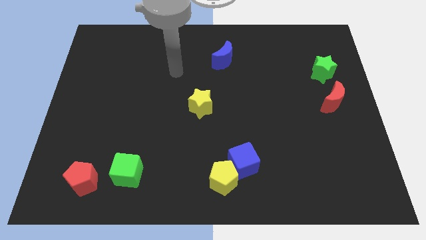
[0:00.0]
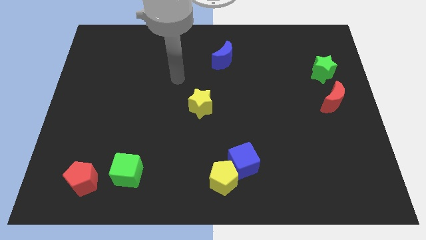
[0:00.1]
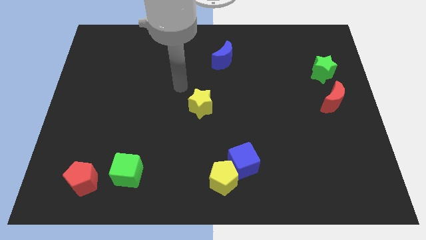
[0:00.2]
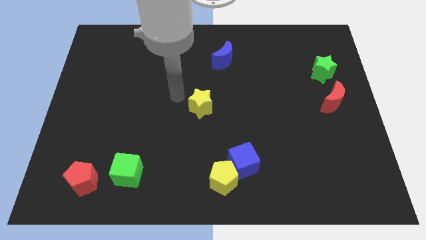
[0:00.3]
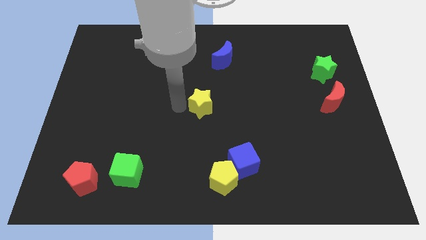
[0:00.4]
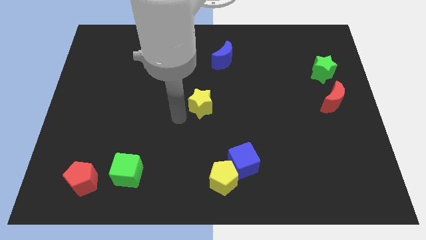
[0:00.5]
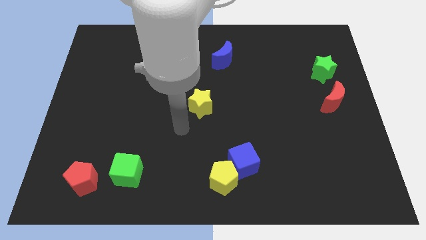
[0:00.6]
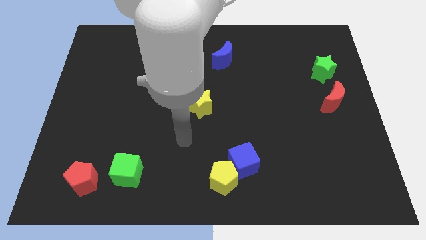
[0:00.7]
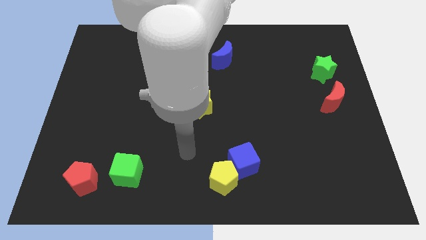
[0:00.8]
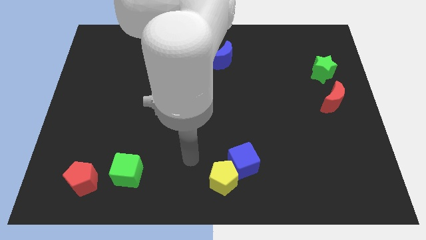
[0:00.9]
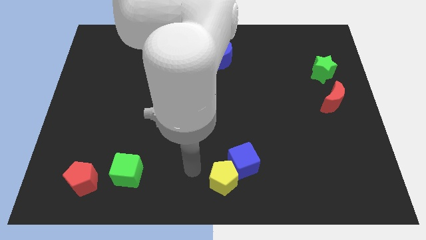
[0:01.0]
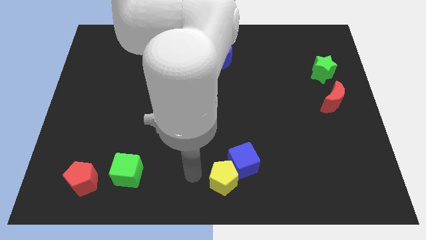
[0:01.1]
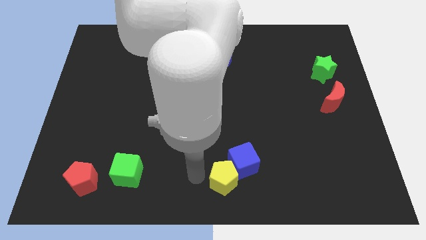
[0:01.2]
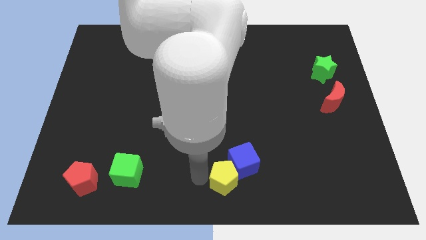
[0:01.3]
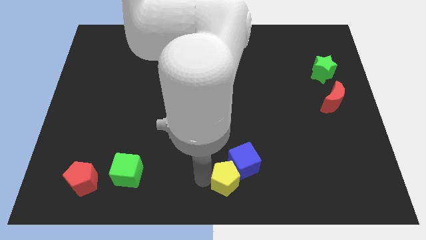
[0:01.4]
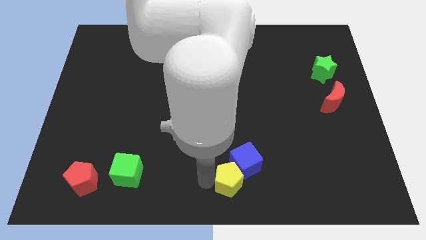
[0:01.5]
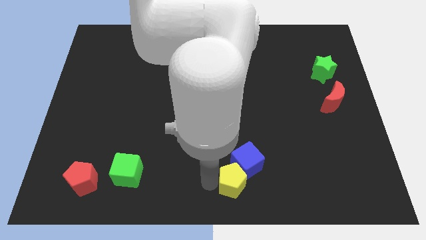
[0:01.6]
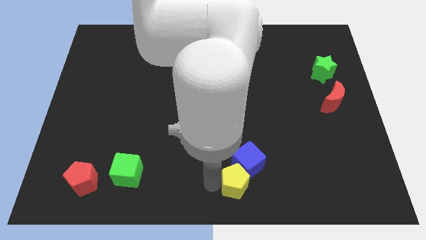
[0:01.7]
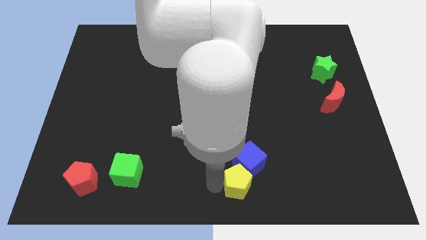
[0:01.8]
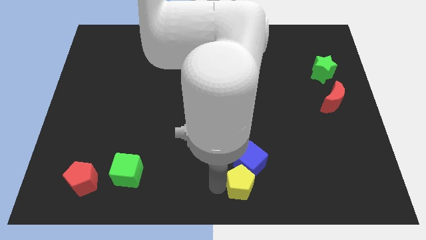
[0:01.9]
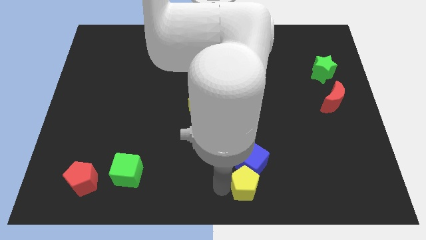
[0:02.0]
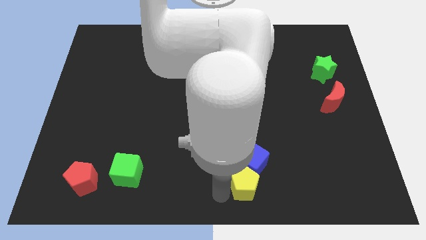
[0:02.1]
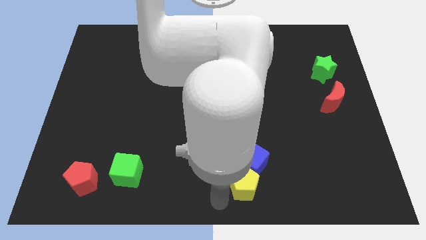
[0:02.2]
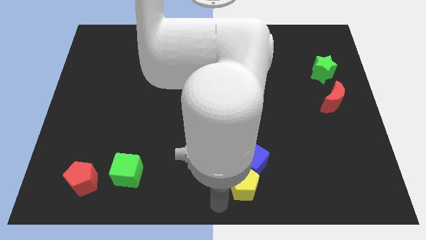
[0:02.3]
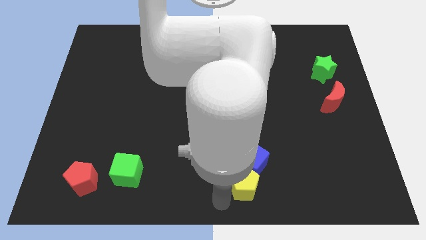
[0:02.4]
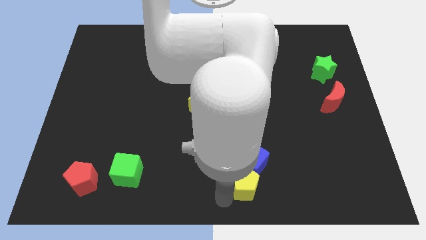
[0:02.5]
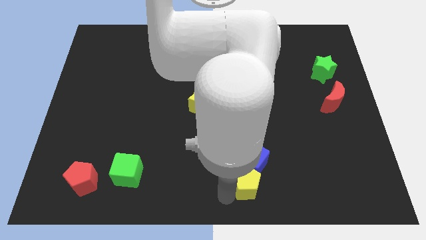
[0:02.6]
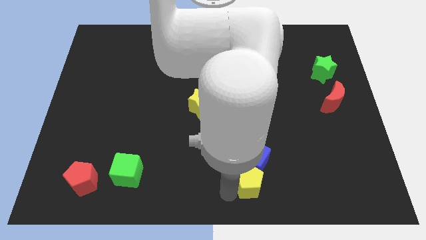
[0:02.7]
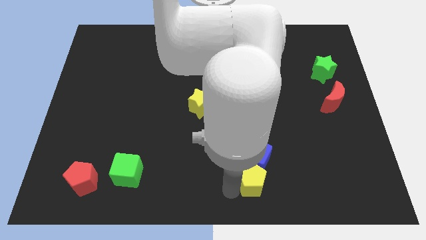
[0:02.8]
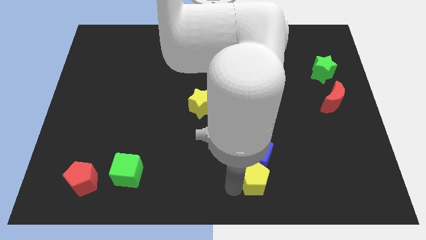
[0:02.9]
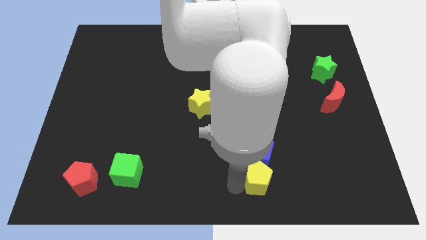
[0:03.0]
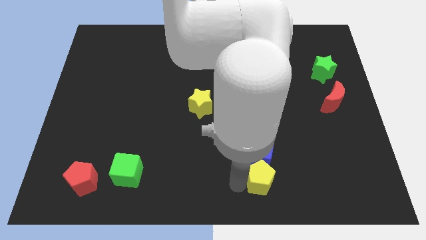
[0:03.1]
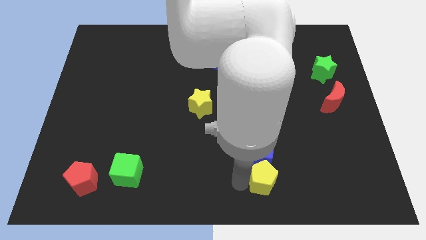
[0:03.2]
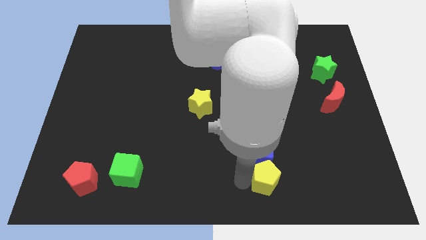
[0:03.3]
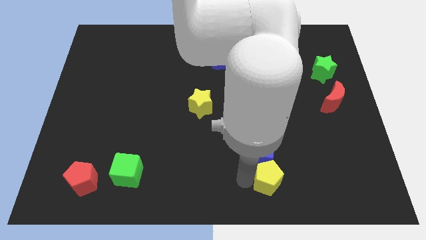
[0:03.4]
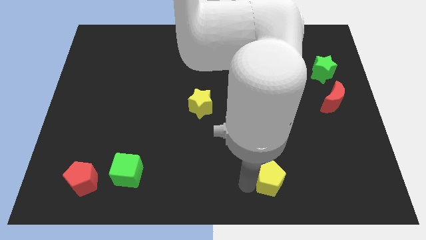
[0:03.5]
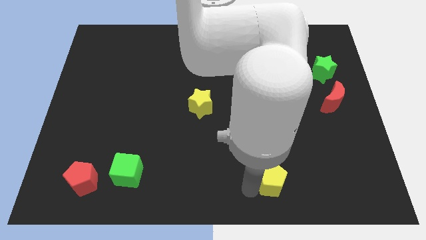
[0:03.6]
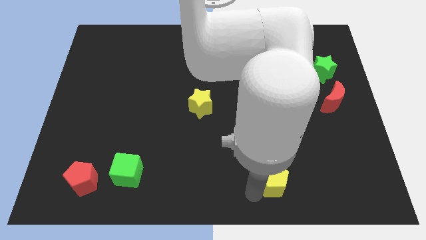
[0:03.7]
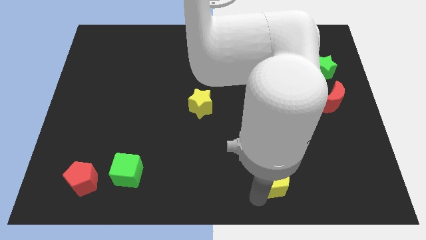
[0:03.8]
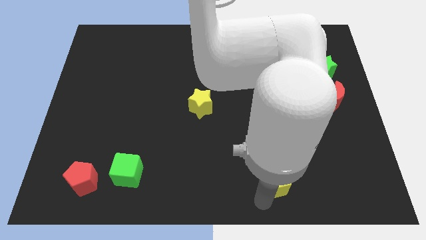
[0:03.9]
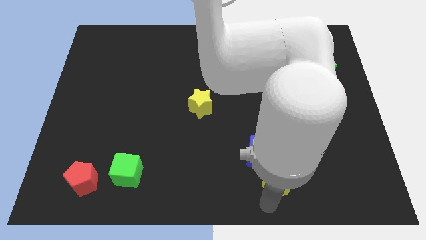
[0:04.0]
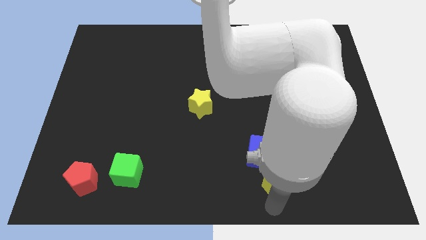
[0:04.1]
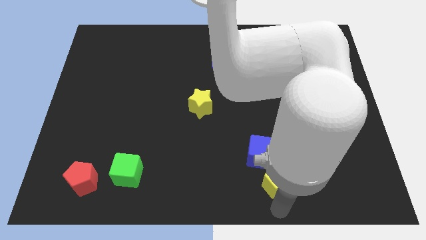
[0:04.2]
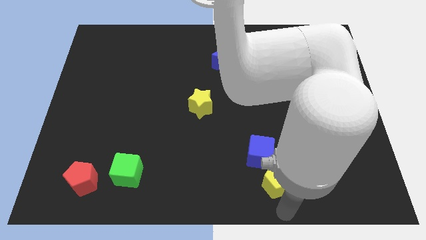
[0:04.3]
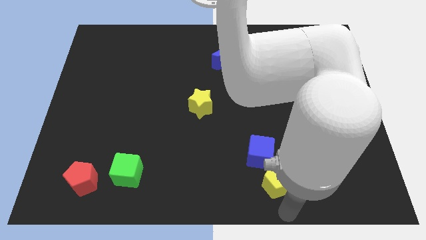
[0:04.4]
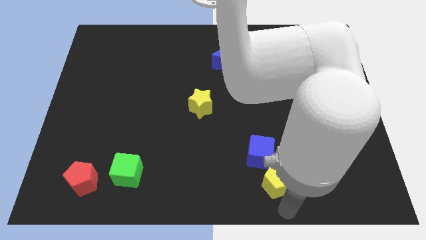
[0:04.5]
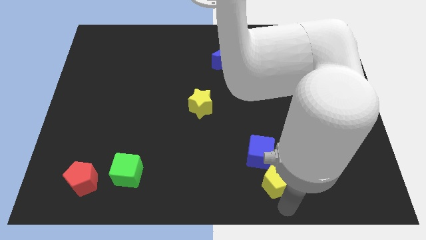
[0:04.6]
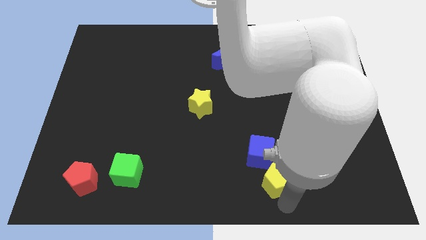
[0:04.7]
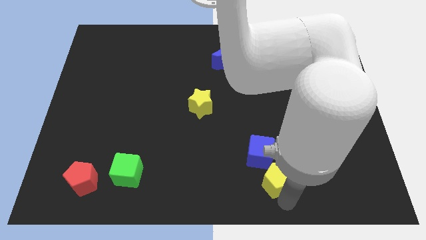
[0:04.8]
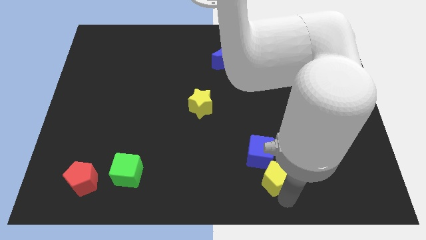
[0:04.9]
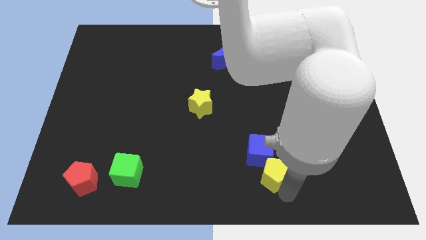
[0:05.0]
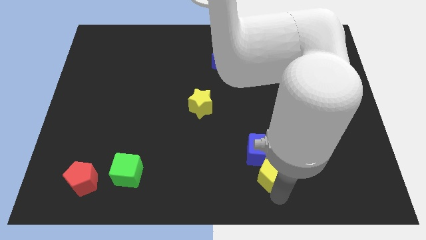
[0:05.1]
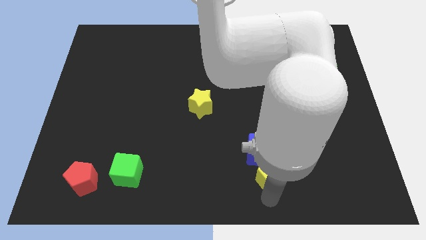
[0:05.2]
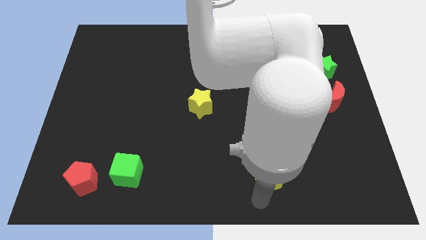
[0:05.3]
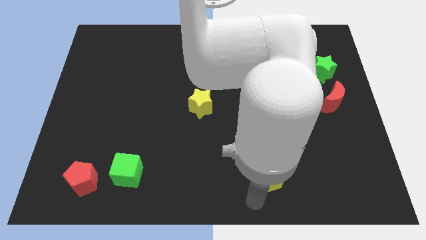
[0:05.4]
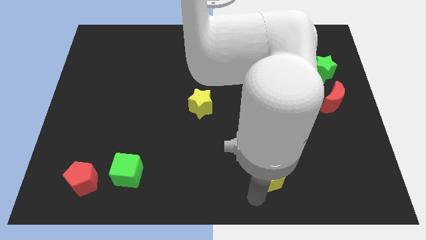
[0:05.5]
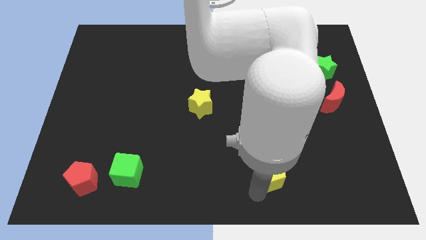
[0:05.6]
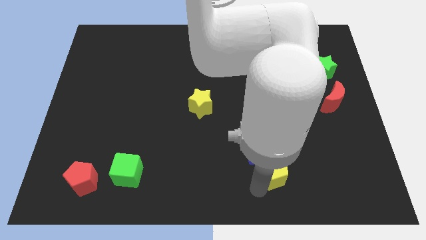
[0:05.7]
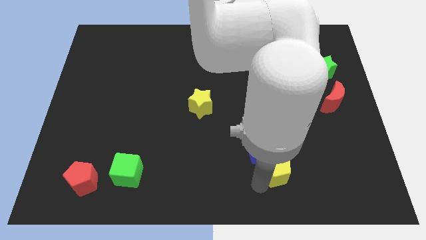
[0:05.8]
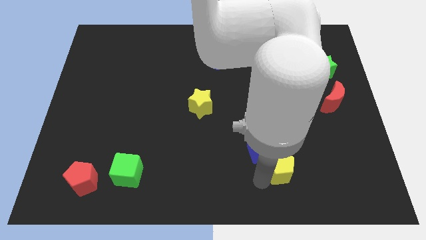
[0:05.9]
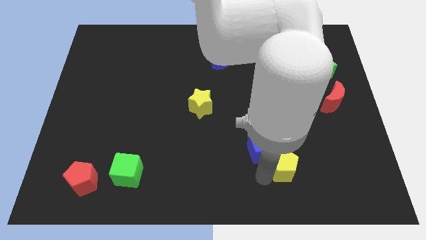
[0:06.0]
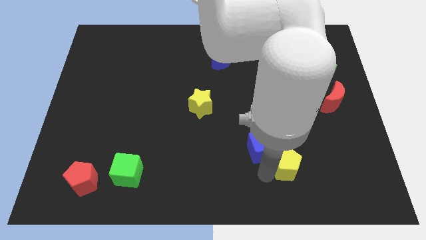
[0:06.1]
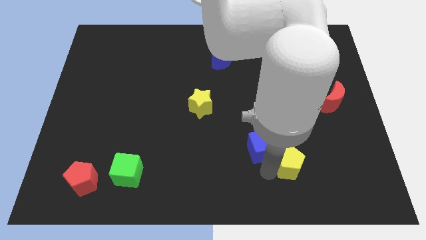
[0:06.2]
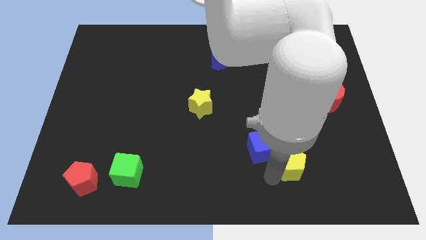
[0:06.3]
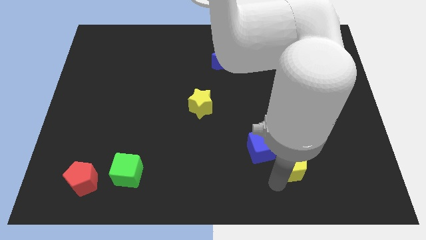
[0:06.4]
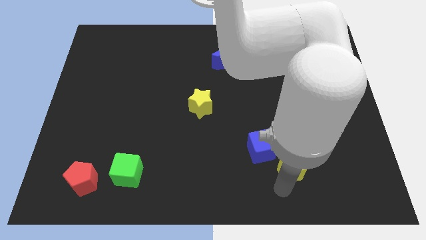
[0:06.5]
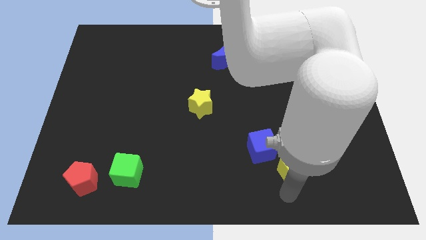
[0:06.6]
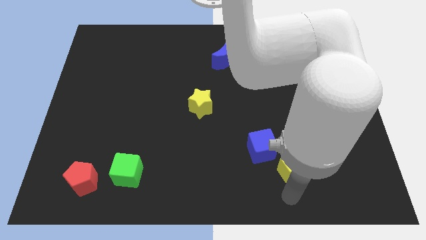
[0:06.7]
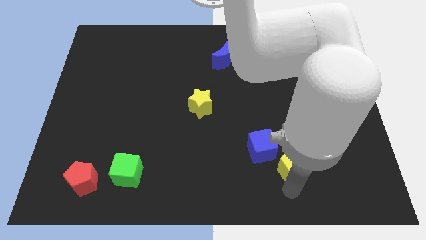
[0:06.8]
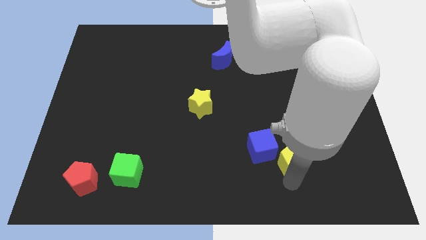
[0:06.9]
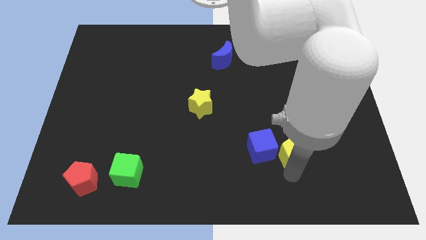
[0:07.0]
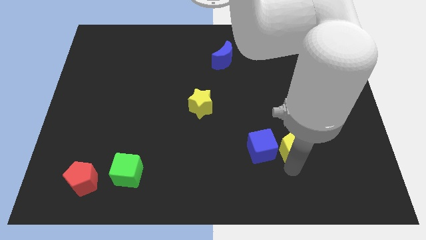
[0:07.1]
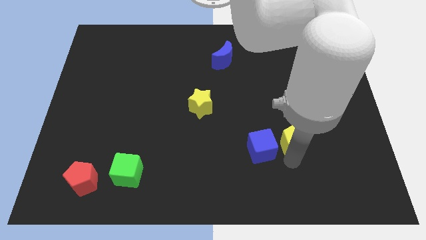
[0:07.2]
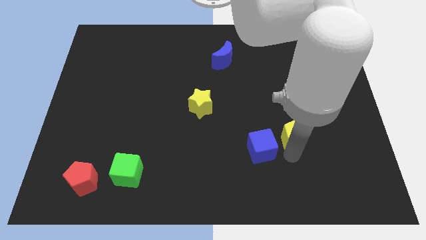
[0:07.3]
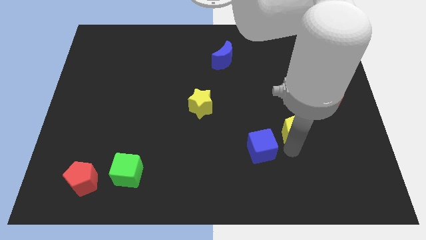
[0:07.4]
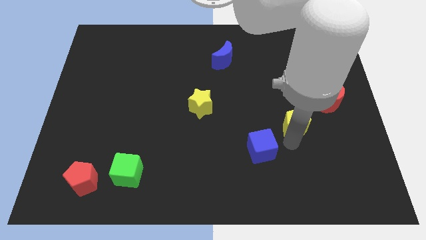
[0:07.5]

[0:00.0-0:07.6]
put the yellow pentagon to the bottom left of the red moon
